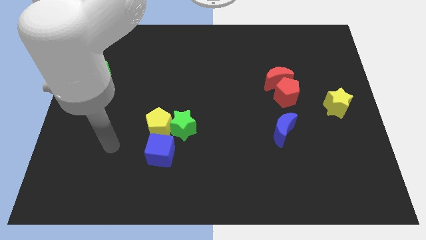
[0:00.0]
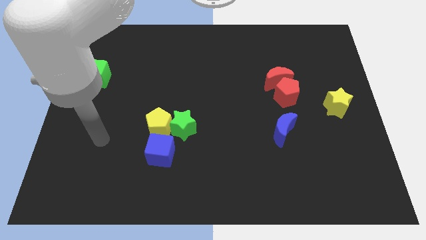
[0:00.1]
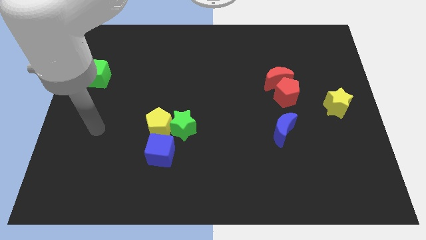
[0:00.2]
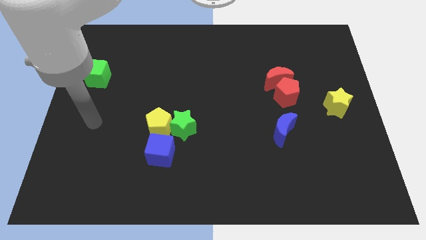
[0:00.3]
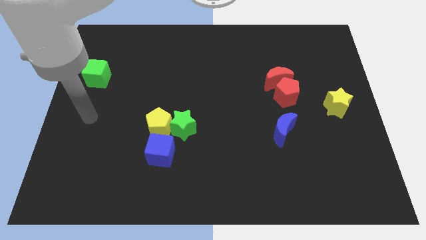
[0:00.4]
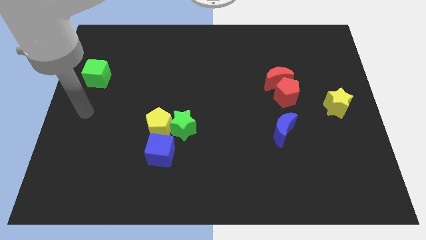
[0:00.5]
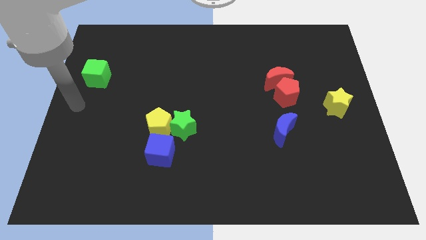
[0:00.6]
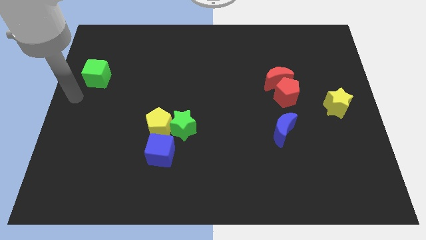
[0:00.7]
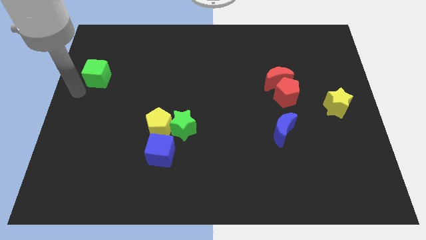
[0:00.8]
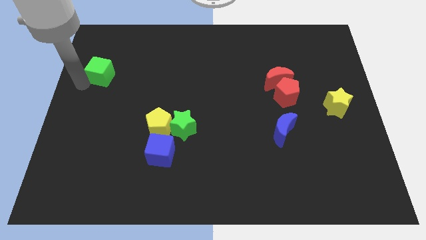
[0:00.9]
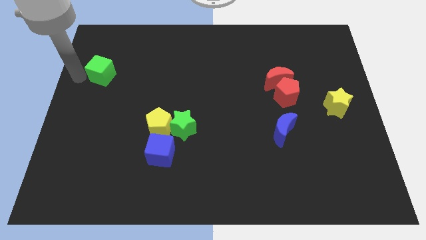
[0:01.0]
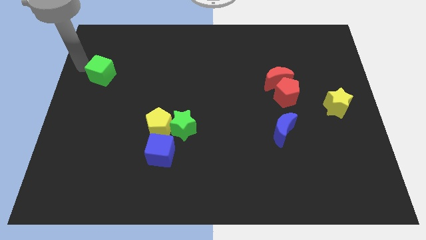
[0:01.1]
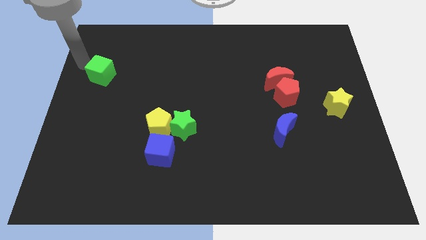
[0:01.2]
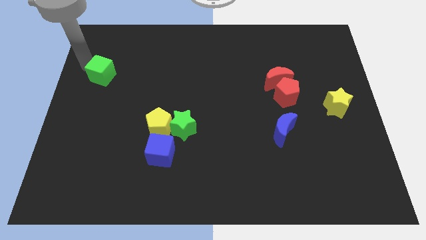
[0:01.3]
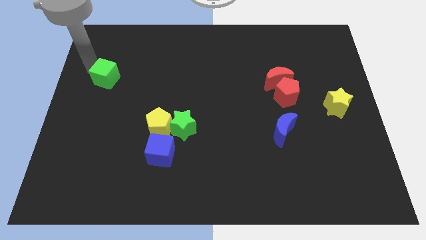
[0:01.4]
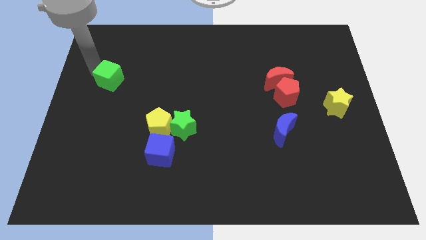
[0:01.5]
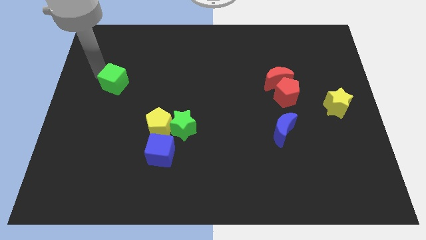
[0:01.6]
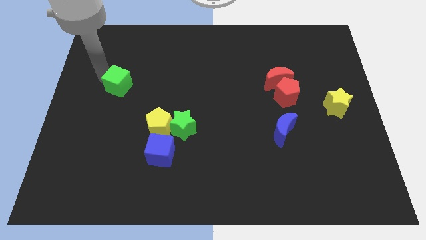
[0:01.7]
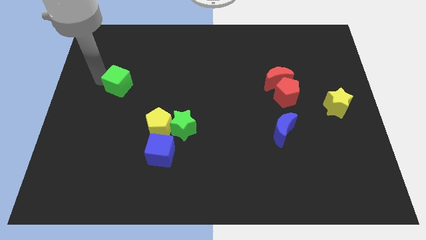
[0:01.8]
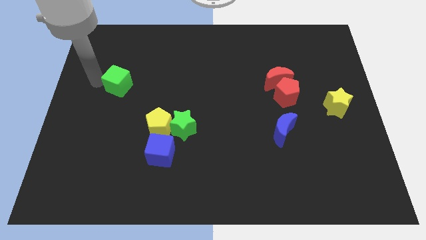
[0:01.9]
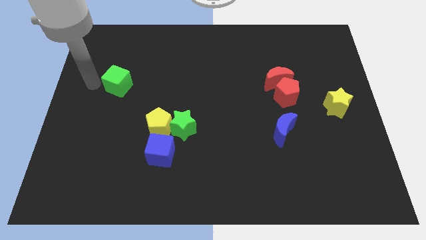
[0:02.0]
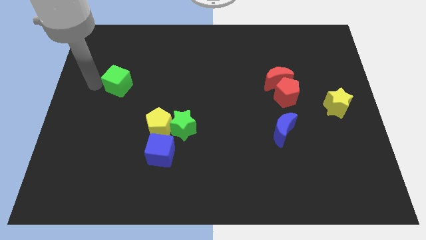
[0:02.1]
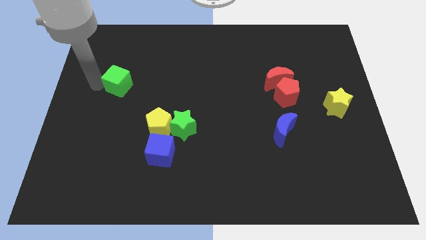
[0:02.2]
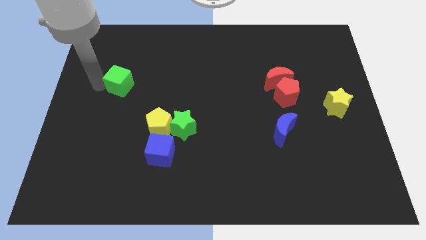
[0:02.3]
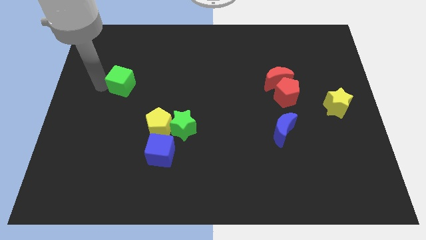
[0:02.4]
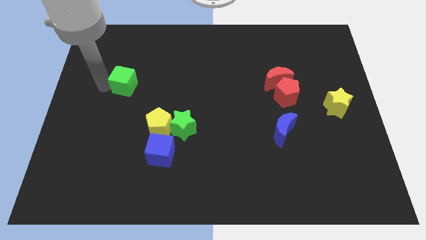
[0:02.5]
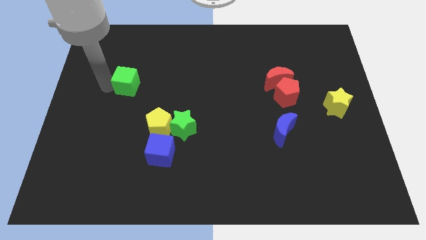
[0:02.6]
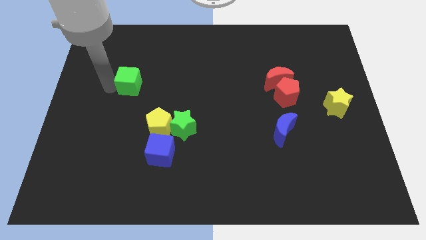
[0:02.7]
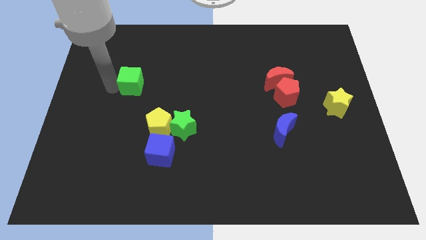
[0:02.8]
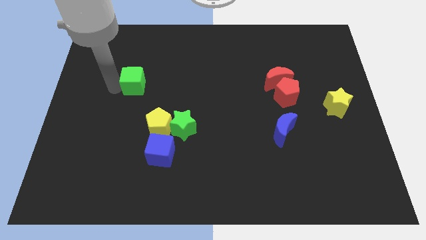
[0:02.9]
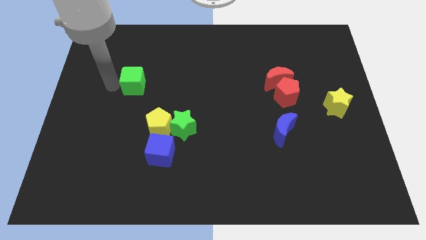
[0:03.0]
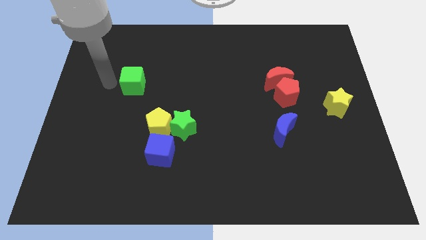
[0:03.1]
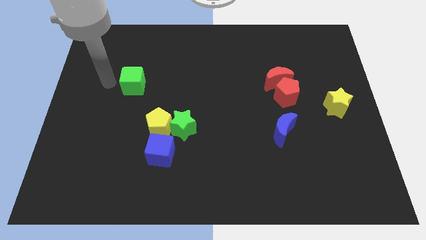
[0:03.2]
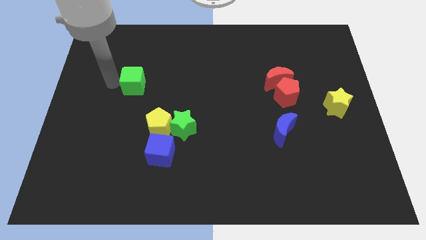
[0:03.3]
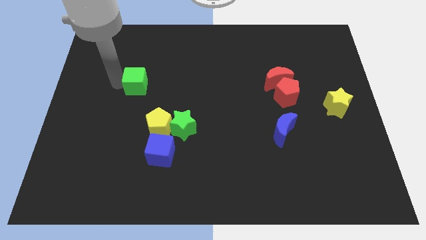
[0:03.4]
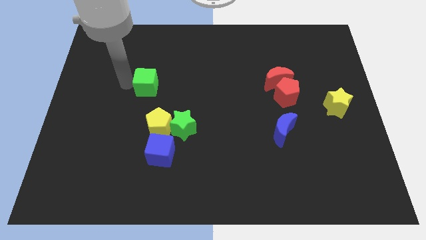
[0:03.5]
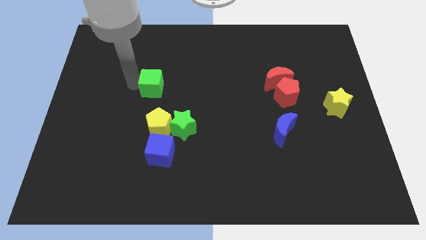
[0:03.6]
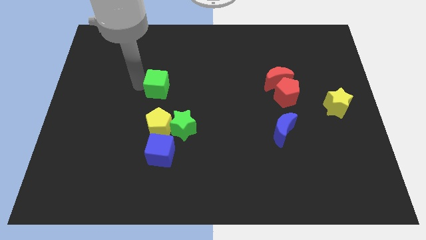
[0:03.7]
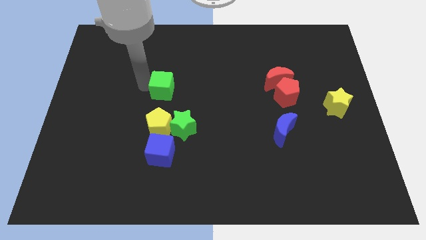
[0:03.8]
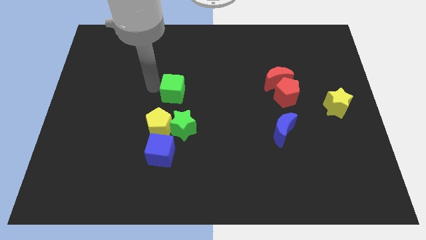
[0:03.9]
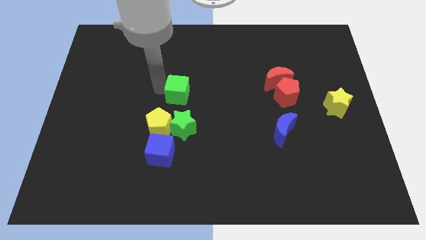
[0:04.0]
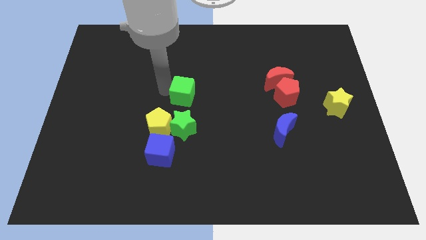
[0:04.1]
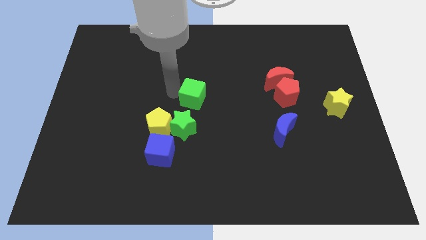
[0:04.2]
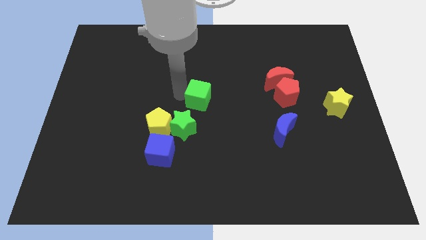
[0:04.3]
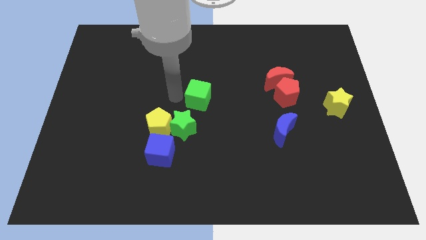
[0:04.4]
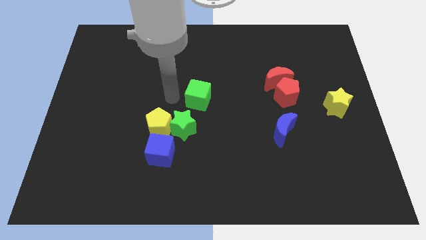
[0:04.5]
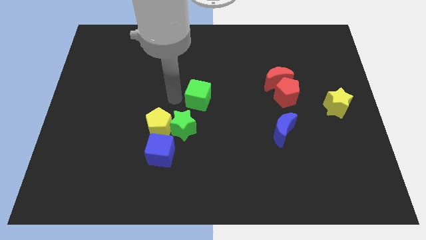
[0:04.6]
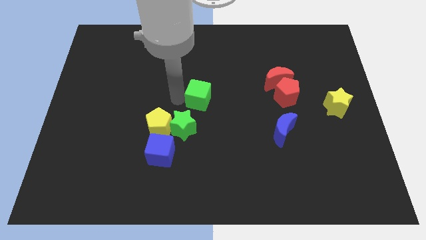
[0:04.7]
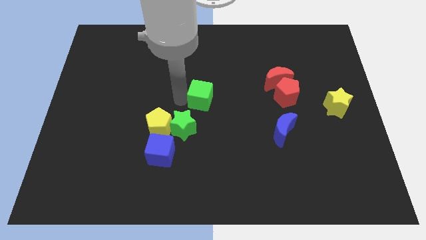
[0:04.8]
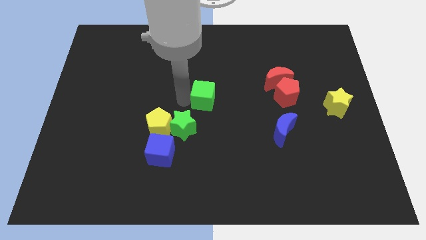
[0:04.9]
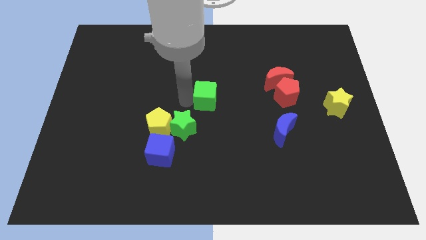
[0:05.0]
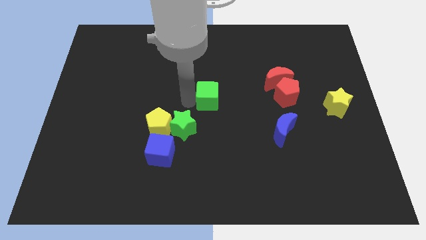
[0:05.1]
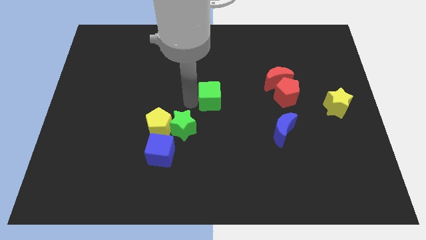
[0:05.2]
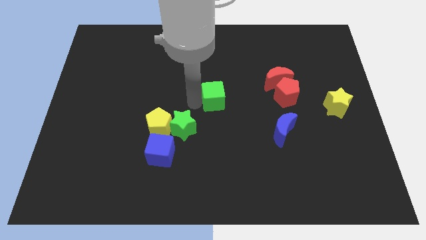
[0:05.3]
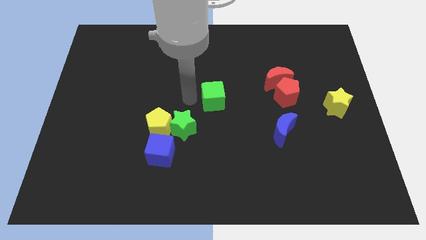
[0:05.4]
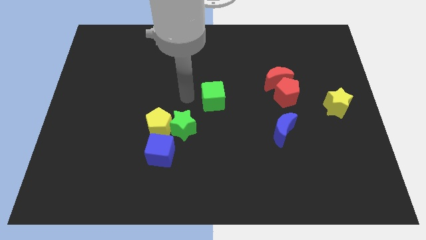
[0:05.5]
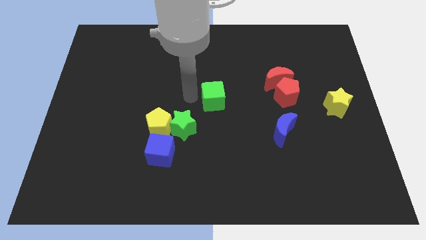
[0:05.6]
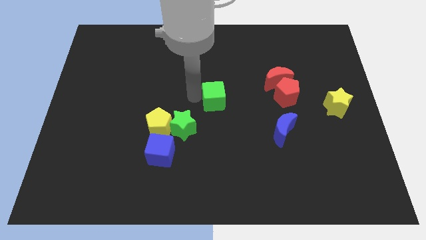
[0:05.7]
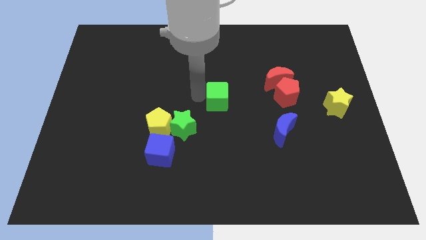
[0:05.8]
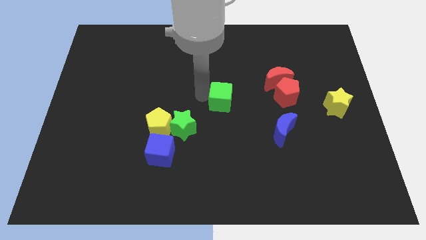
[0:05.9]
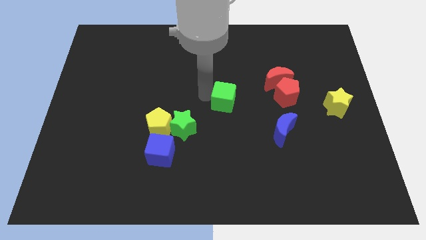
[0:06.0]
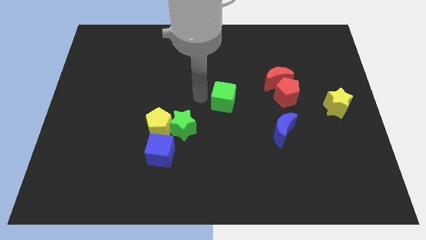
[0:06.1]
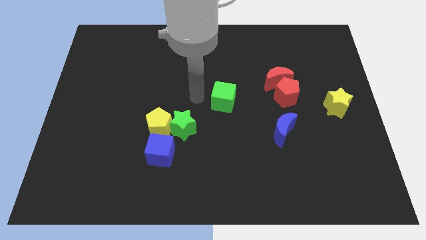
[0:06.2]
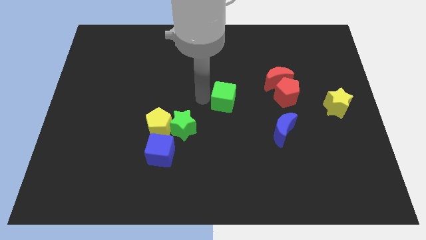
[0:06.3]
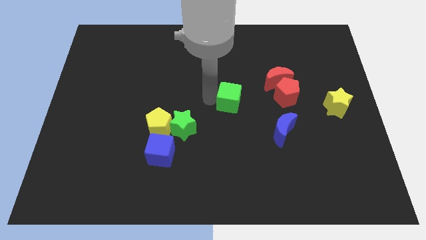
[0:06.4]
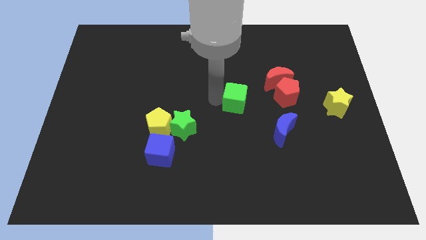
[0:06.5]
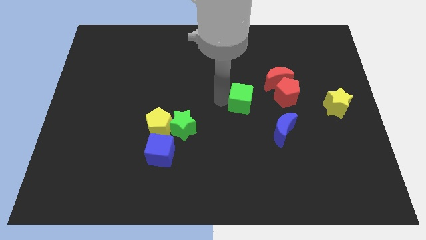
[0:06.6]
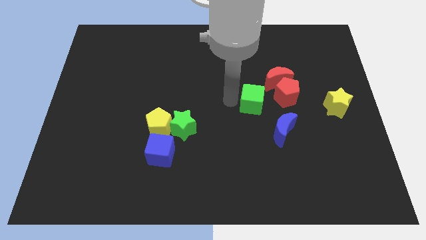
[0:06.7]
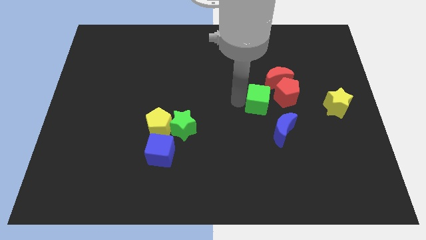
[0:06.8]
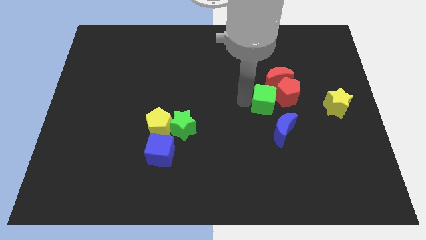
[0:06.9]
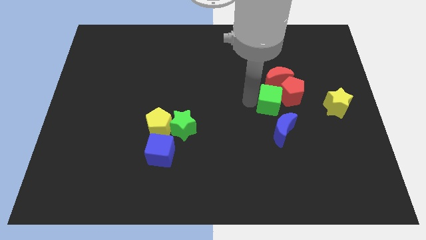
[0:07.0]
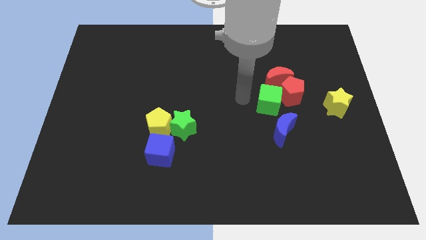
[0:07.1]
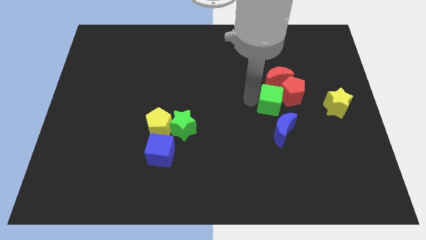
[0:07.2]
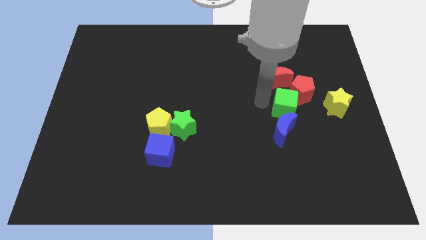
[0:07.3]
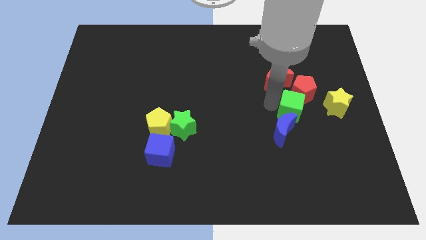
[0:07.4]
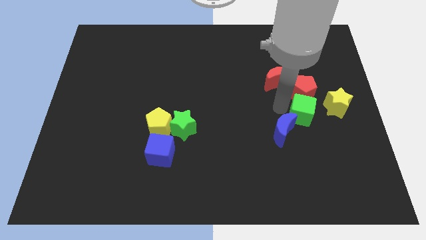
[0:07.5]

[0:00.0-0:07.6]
put the green cube diagonally down and to the right of the red pentagon
